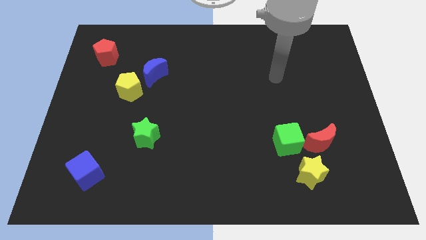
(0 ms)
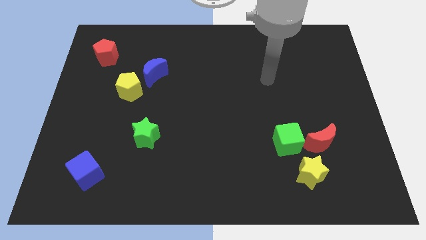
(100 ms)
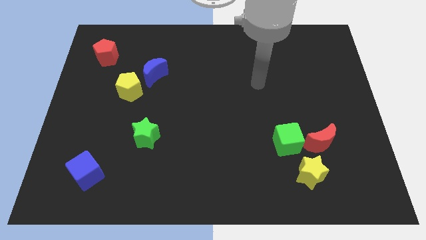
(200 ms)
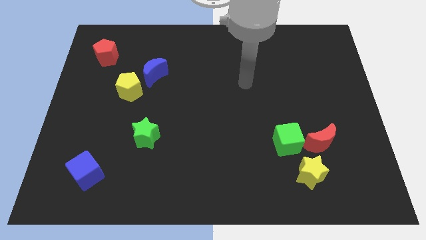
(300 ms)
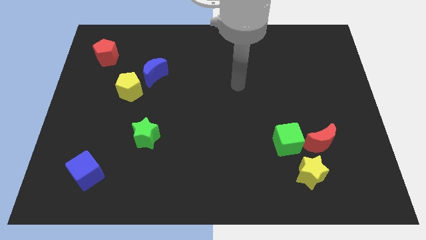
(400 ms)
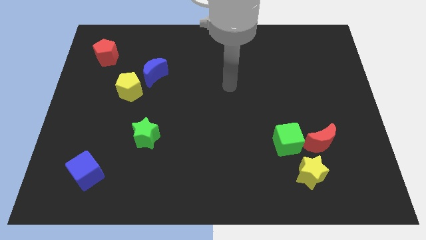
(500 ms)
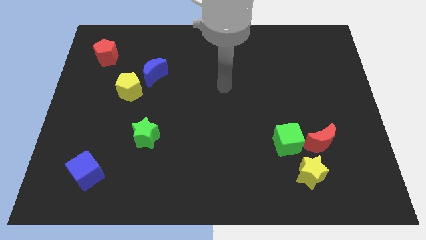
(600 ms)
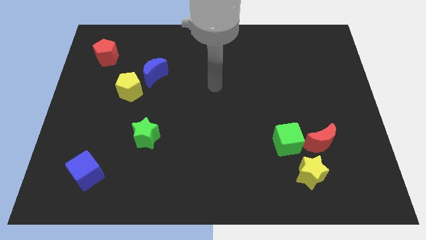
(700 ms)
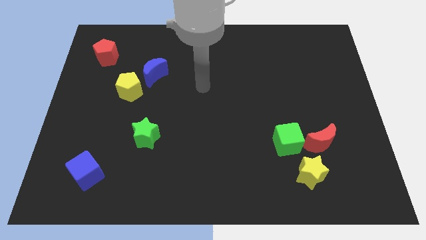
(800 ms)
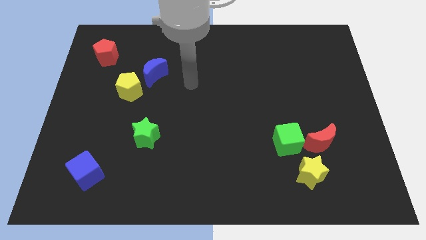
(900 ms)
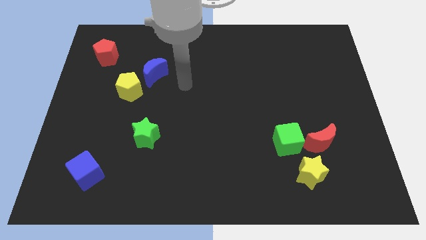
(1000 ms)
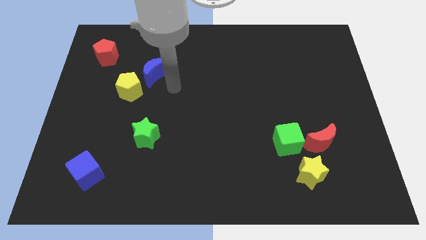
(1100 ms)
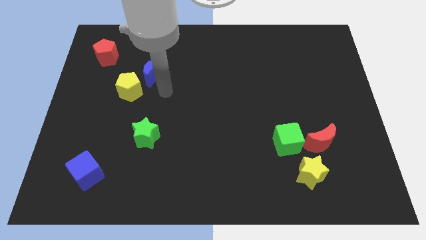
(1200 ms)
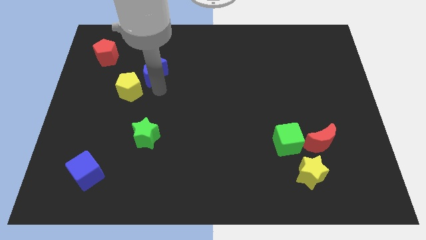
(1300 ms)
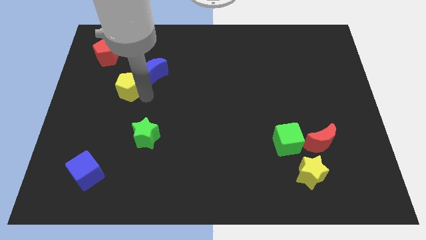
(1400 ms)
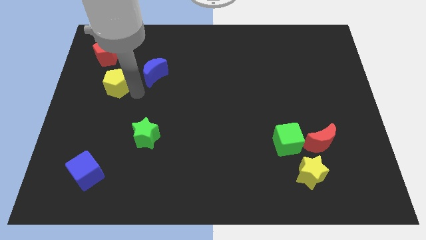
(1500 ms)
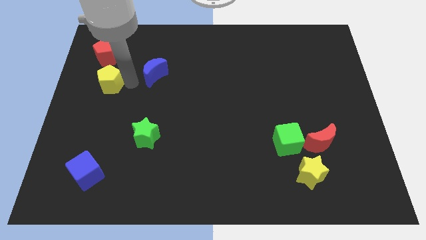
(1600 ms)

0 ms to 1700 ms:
pull the blue moon apart from the yellow pentagon

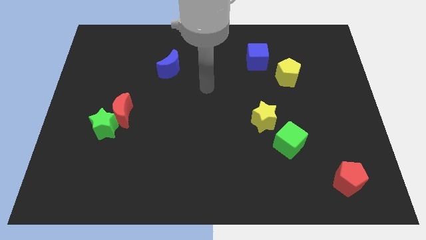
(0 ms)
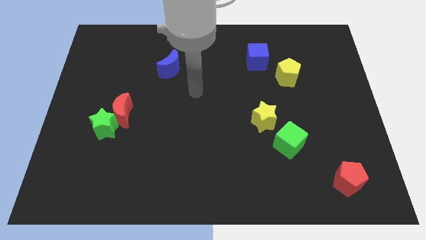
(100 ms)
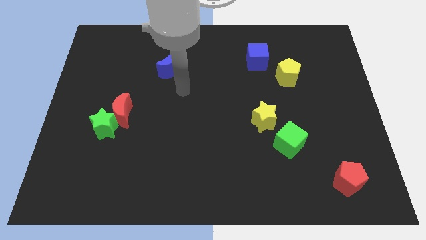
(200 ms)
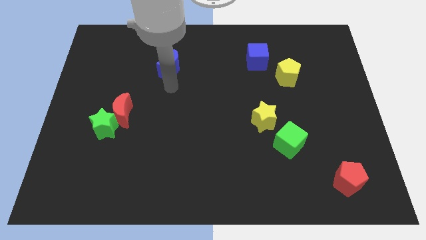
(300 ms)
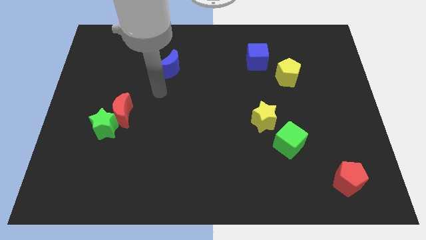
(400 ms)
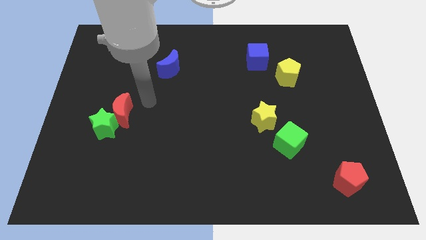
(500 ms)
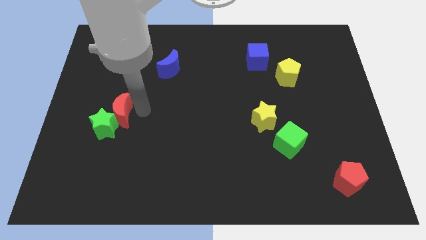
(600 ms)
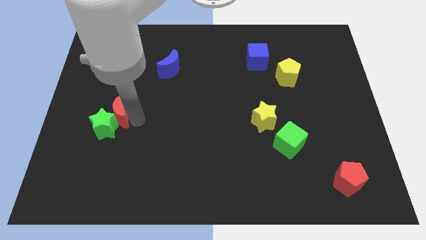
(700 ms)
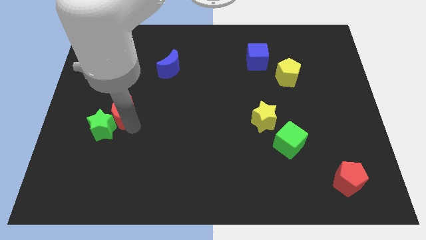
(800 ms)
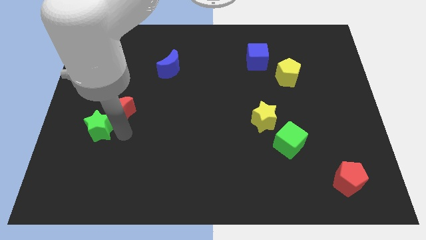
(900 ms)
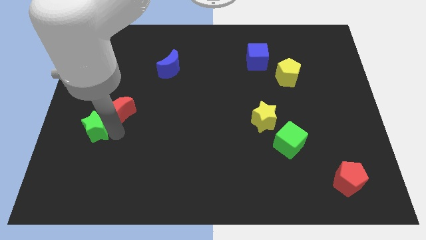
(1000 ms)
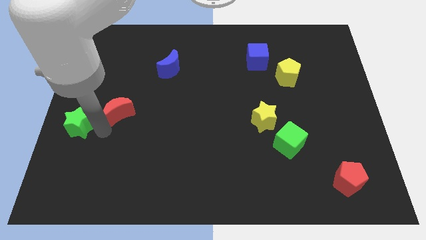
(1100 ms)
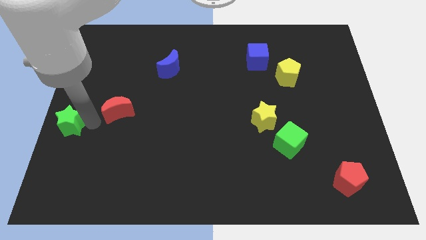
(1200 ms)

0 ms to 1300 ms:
pull the red moon apart from the green star

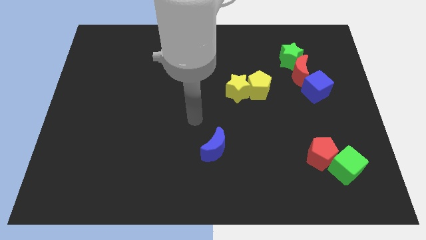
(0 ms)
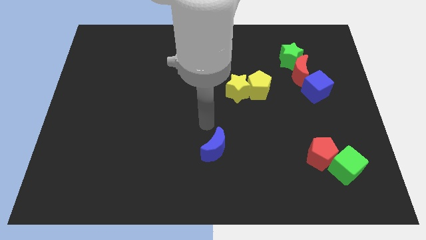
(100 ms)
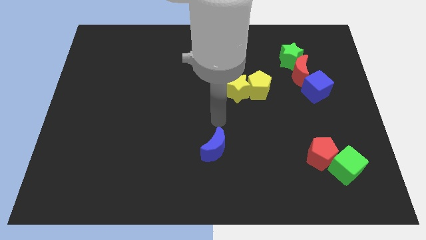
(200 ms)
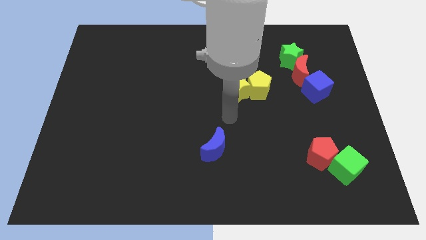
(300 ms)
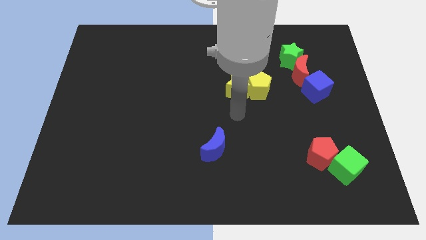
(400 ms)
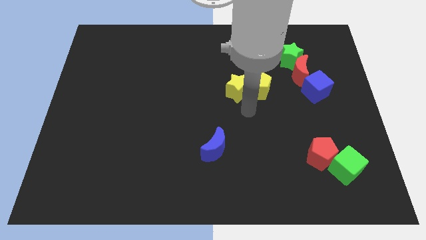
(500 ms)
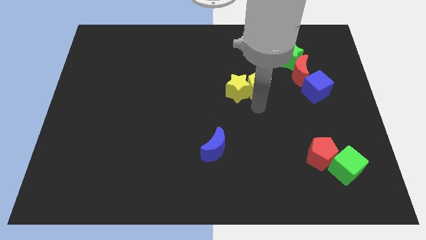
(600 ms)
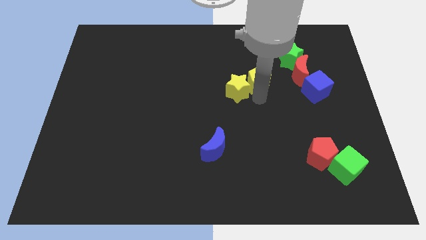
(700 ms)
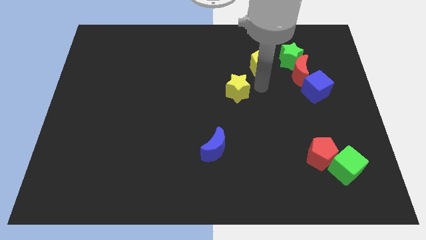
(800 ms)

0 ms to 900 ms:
move the yellow star away from the yellow pentagon

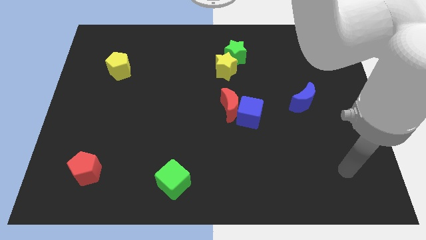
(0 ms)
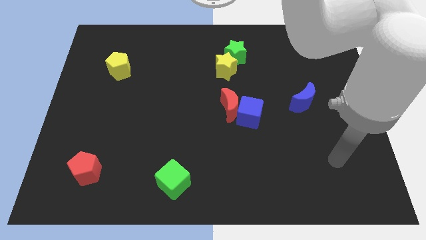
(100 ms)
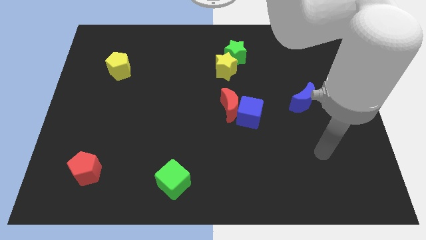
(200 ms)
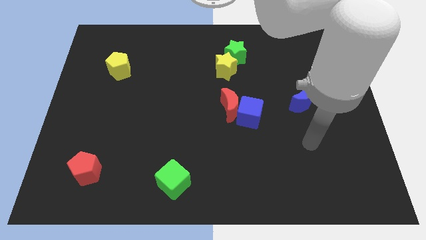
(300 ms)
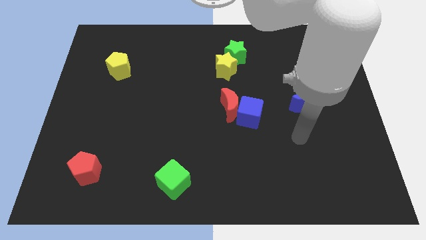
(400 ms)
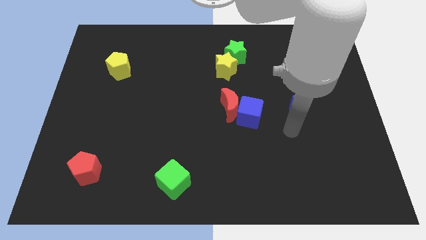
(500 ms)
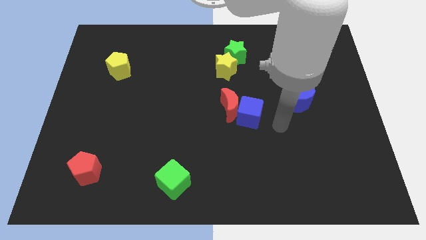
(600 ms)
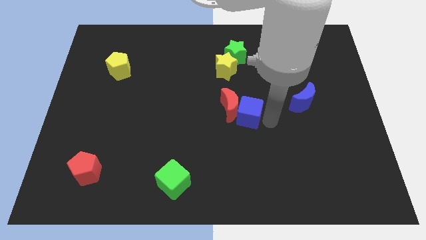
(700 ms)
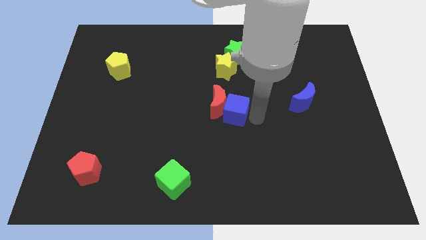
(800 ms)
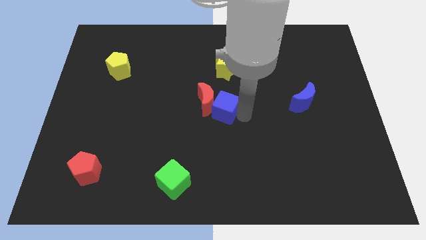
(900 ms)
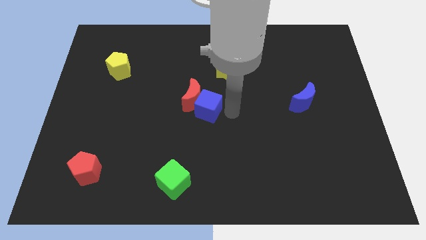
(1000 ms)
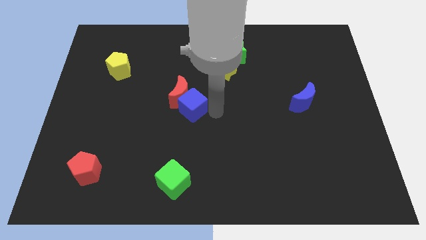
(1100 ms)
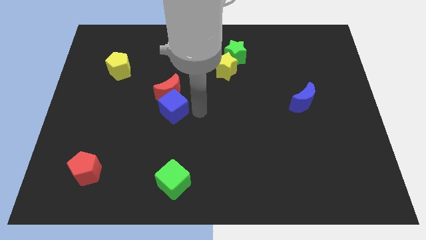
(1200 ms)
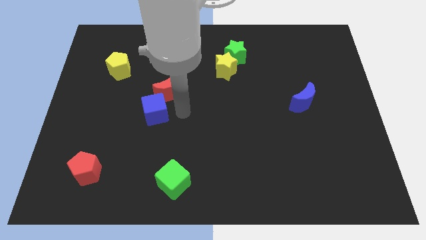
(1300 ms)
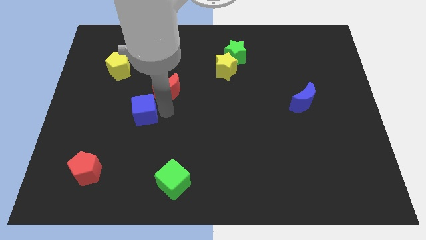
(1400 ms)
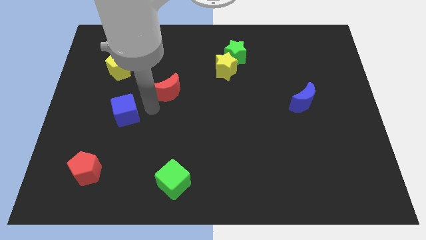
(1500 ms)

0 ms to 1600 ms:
pull the red moon apart from the blue cube

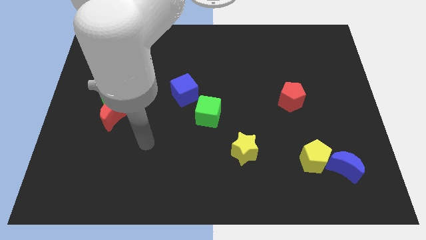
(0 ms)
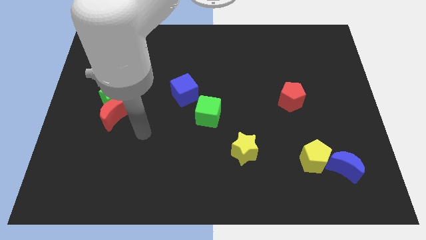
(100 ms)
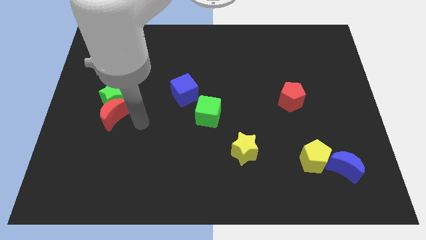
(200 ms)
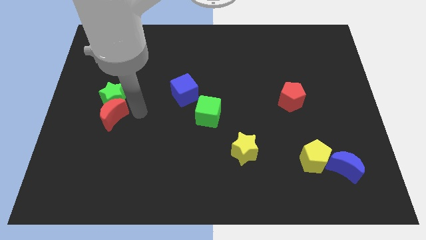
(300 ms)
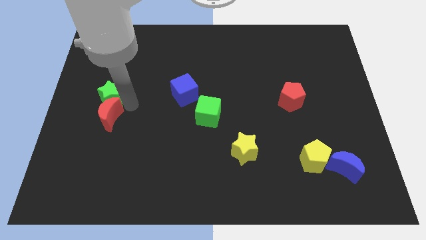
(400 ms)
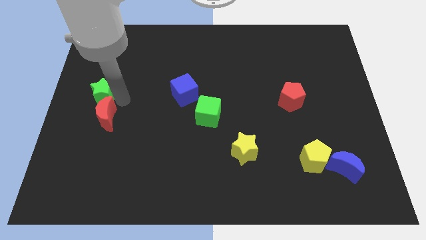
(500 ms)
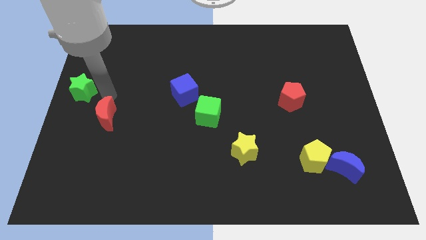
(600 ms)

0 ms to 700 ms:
separate the red moon from the green star

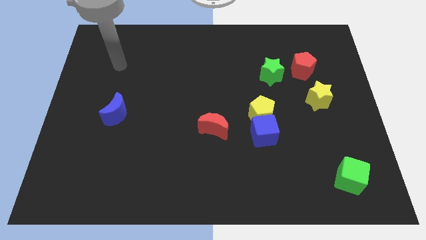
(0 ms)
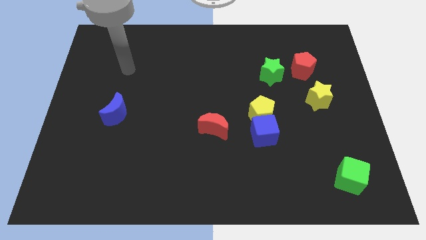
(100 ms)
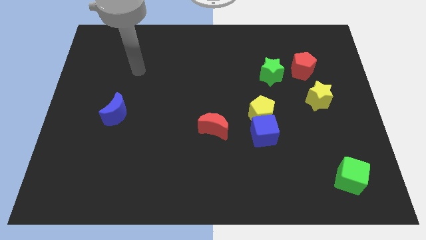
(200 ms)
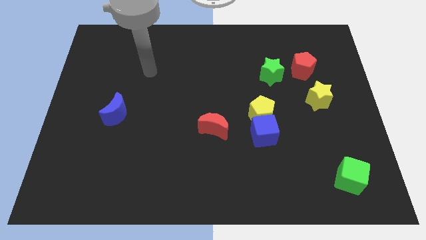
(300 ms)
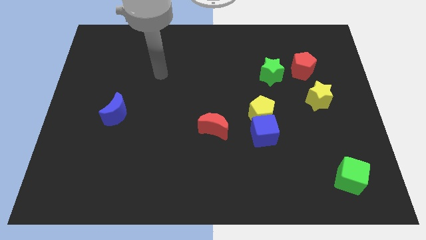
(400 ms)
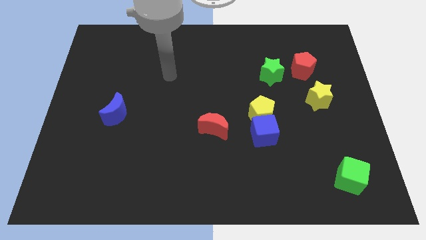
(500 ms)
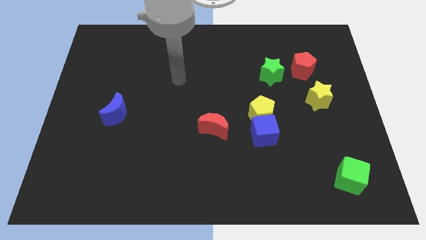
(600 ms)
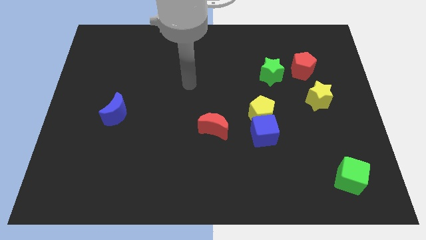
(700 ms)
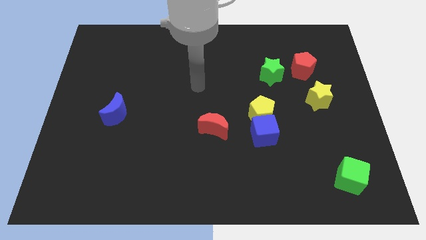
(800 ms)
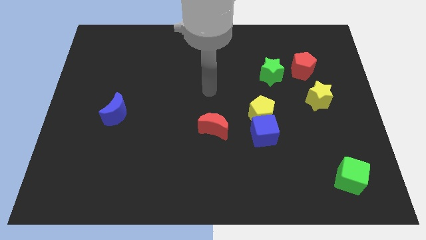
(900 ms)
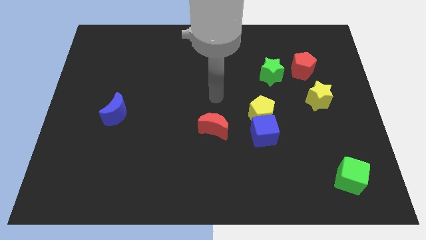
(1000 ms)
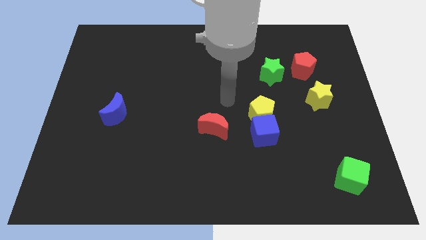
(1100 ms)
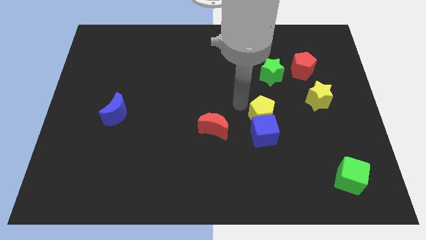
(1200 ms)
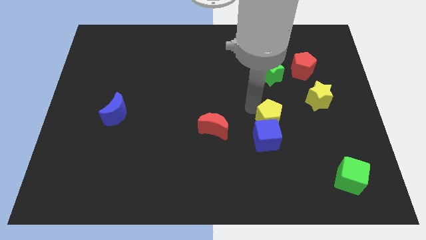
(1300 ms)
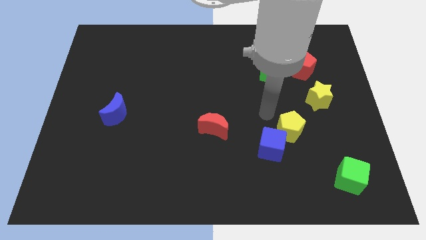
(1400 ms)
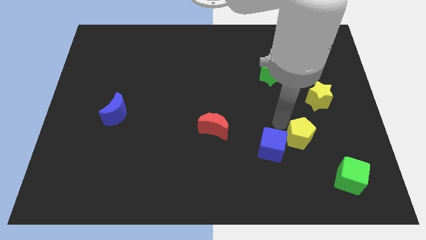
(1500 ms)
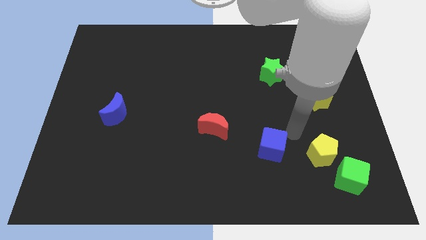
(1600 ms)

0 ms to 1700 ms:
move the blue cube away from the yellow pentagon

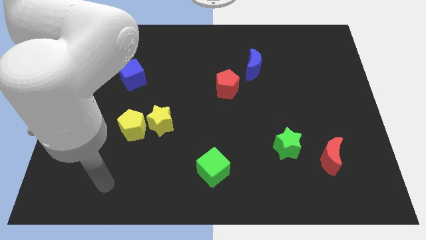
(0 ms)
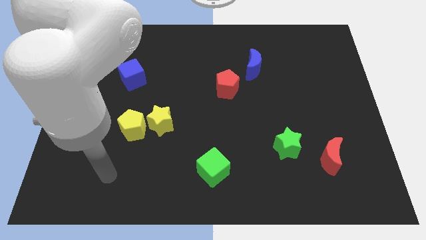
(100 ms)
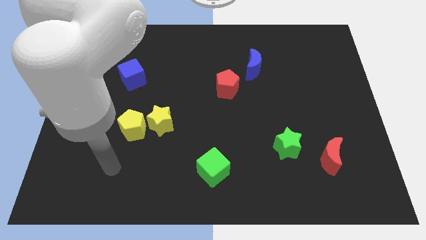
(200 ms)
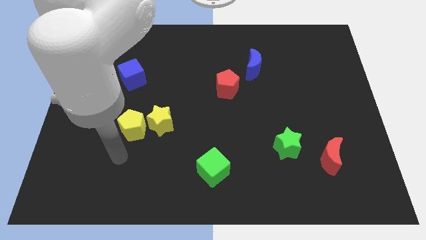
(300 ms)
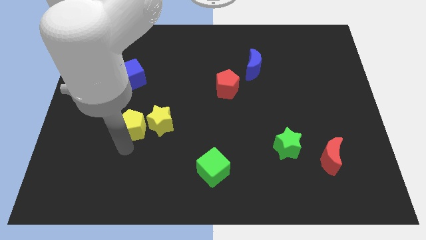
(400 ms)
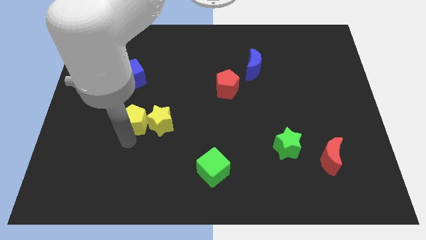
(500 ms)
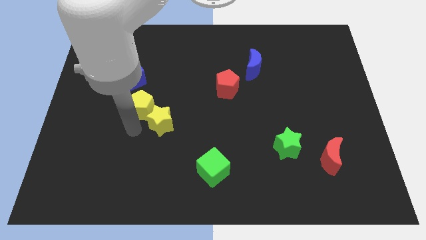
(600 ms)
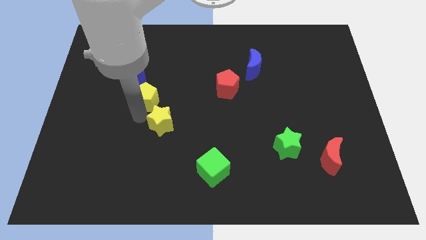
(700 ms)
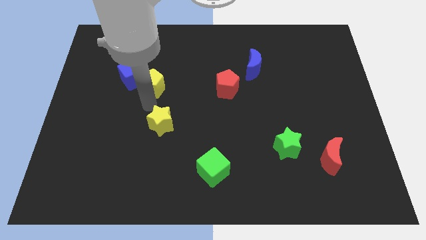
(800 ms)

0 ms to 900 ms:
separate the yellow star from the yellow pentagon

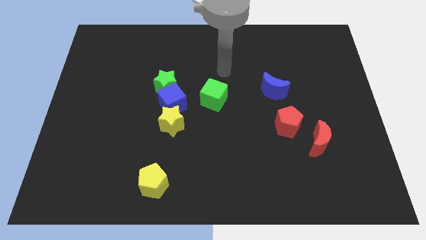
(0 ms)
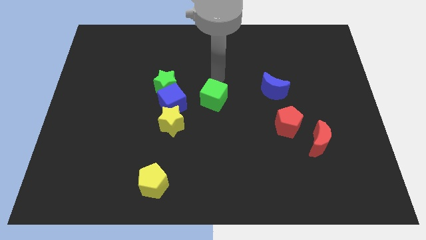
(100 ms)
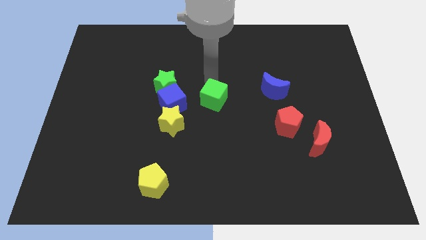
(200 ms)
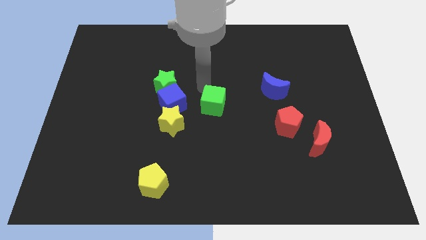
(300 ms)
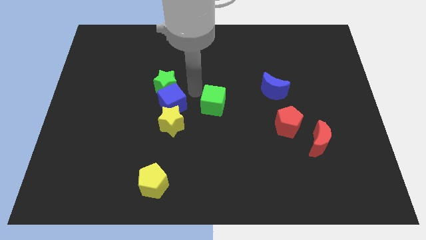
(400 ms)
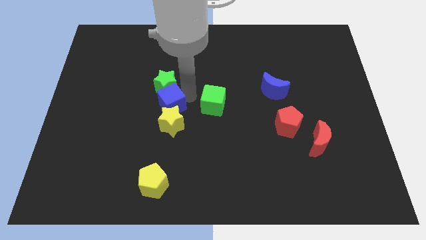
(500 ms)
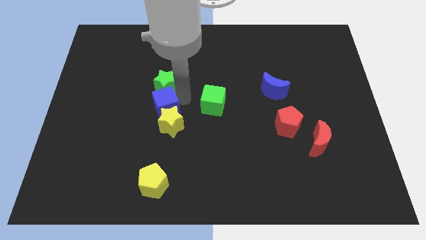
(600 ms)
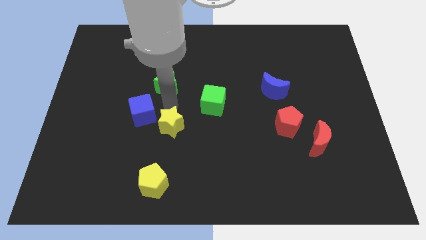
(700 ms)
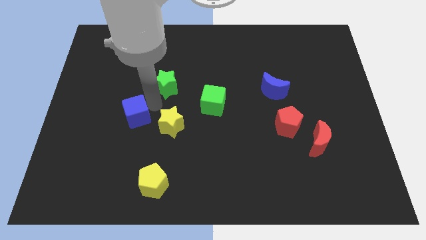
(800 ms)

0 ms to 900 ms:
pull the green star apart from the blue cube
